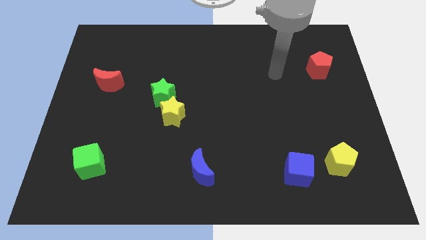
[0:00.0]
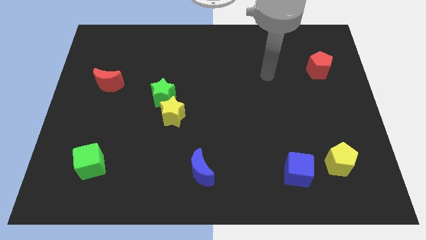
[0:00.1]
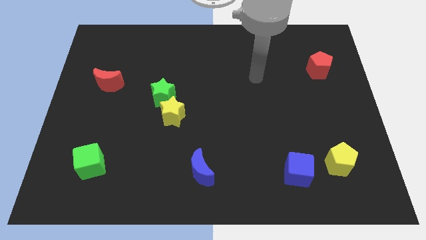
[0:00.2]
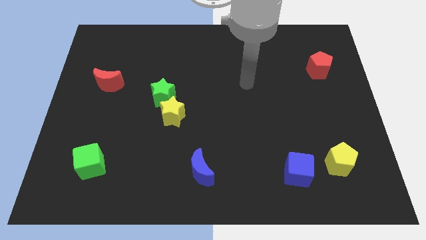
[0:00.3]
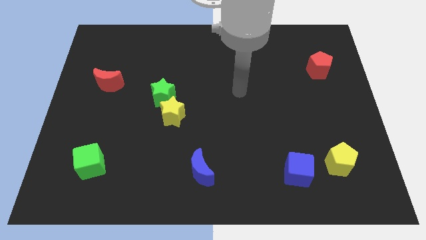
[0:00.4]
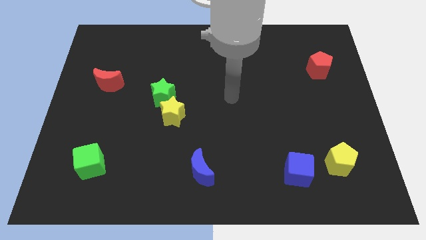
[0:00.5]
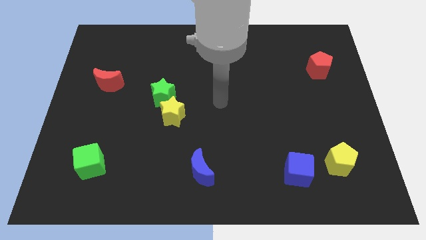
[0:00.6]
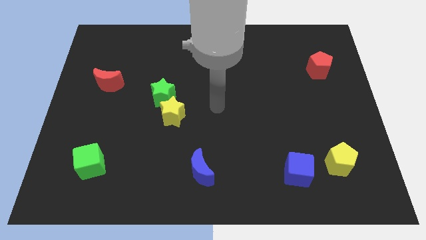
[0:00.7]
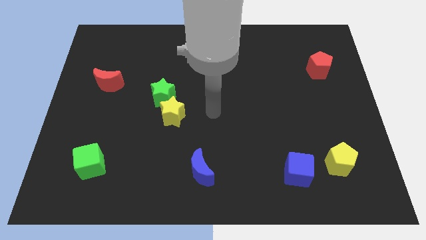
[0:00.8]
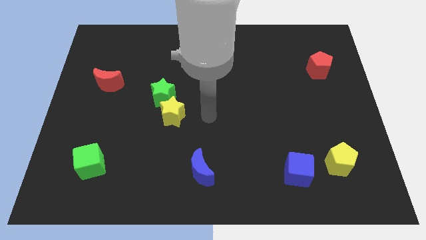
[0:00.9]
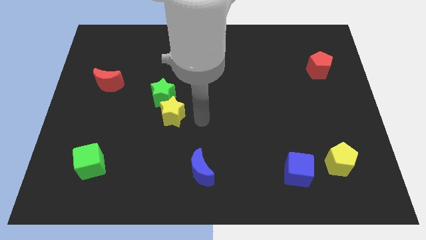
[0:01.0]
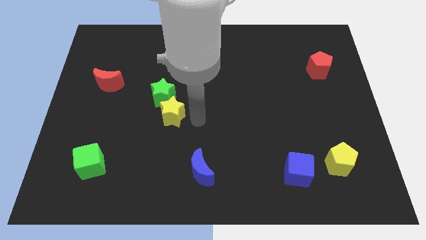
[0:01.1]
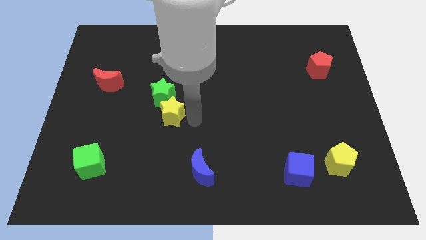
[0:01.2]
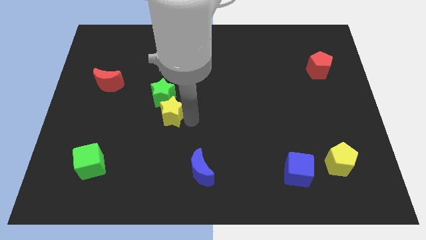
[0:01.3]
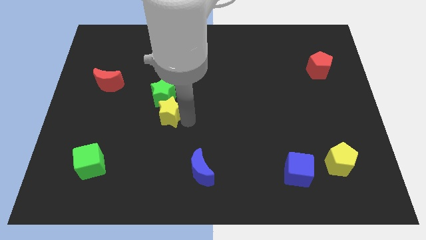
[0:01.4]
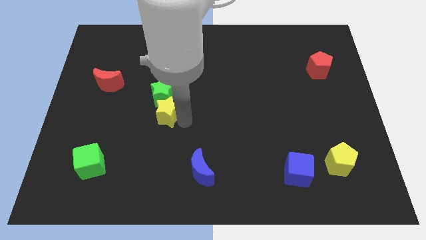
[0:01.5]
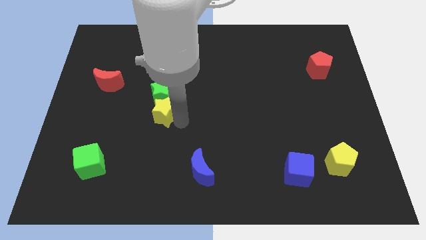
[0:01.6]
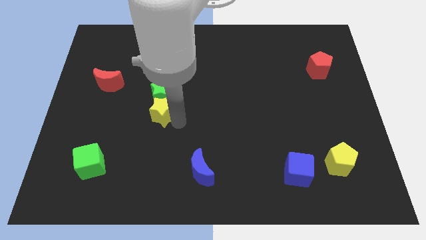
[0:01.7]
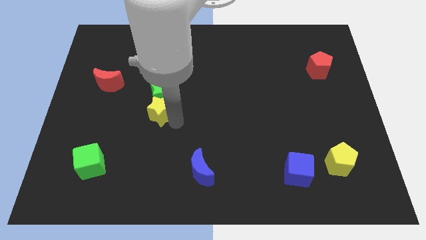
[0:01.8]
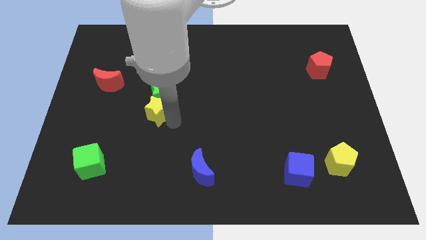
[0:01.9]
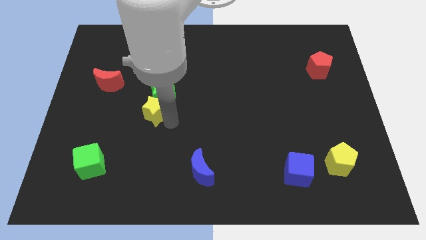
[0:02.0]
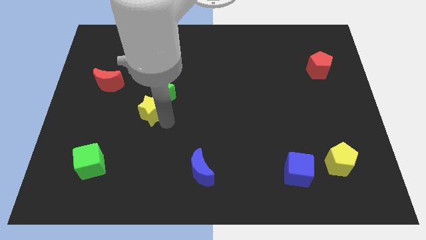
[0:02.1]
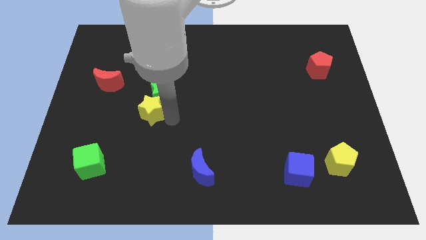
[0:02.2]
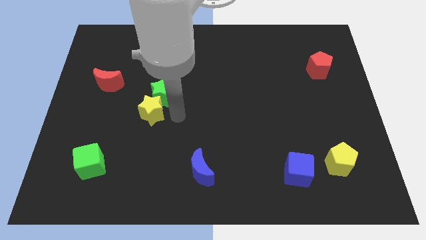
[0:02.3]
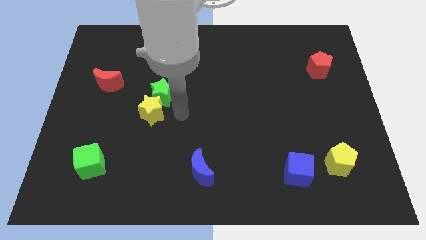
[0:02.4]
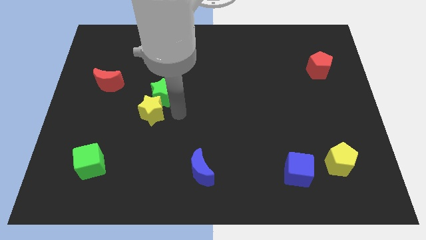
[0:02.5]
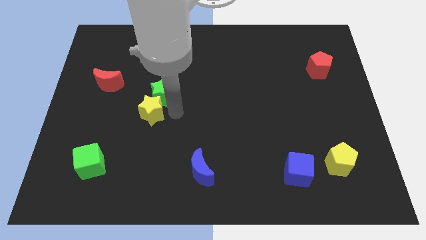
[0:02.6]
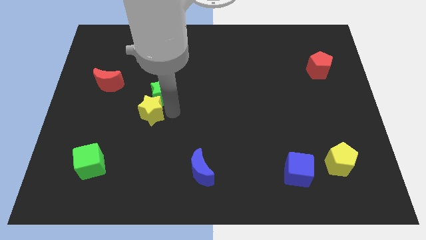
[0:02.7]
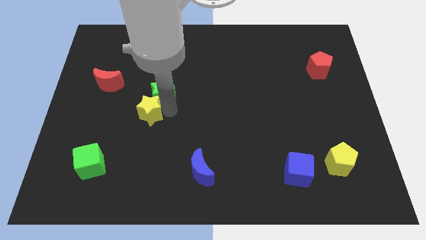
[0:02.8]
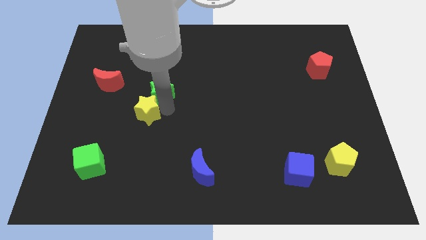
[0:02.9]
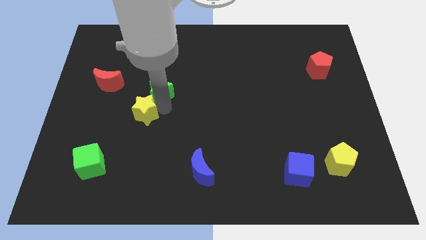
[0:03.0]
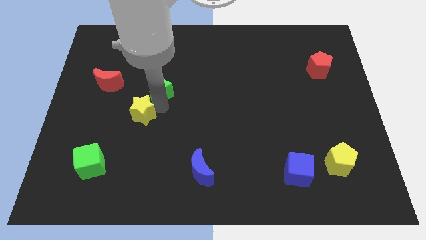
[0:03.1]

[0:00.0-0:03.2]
slide the yellow star left a little bit

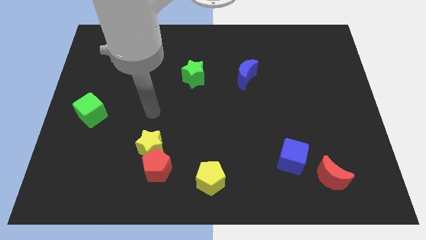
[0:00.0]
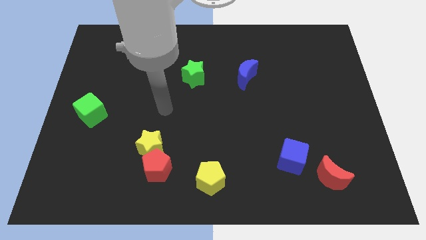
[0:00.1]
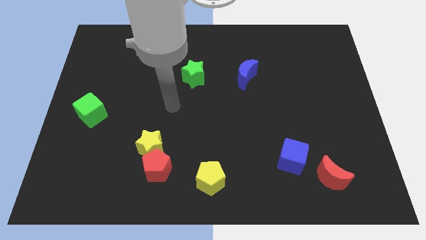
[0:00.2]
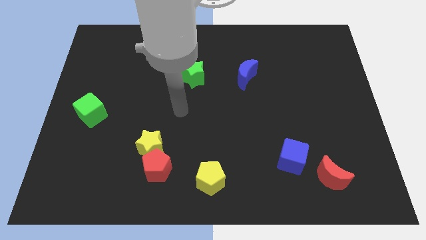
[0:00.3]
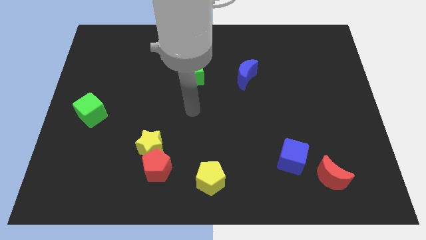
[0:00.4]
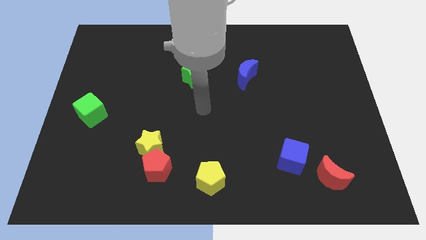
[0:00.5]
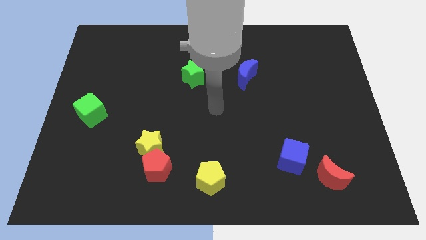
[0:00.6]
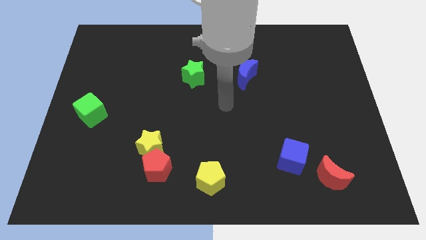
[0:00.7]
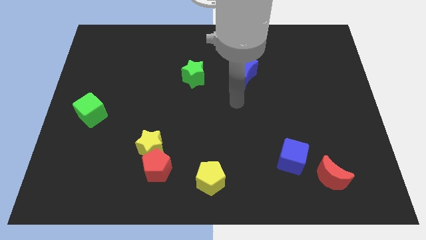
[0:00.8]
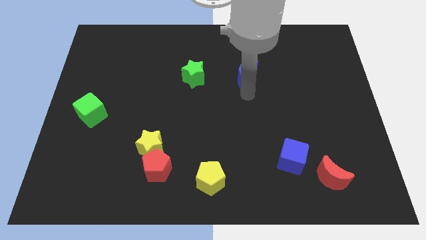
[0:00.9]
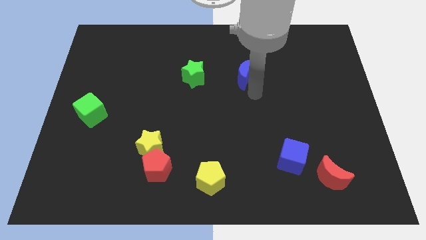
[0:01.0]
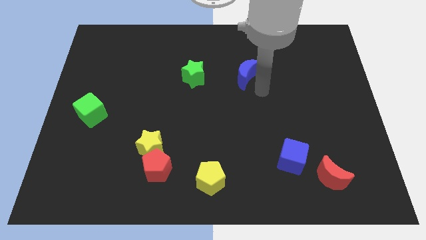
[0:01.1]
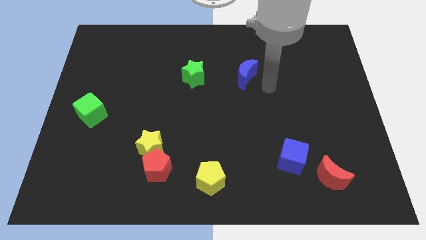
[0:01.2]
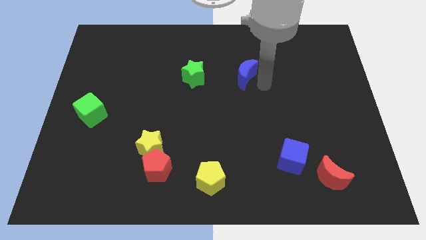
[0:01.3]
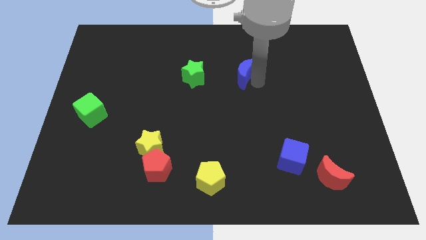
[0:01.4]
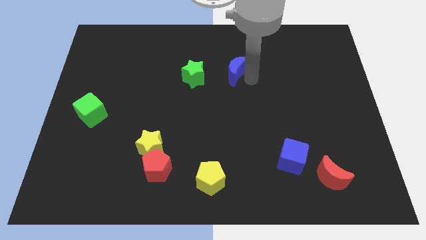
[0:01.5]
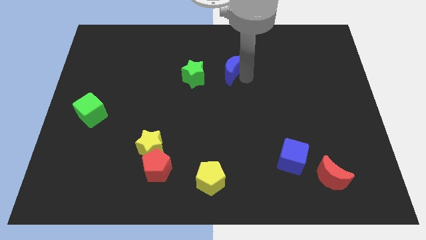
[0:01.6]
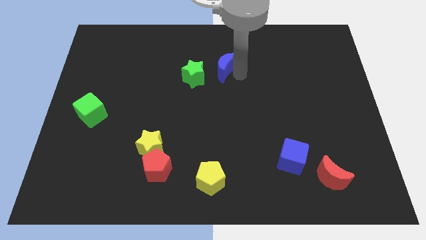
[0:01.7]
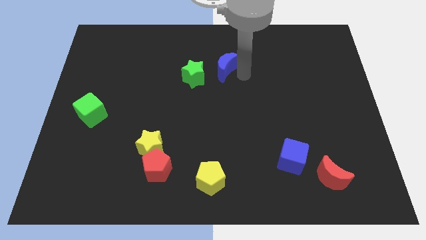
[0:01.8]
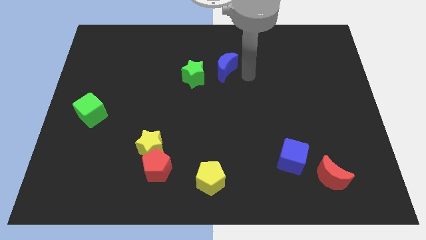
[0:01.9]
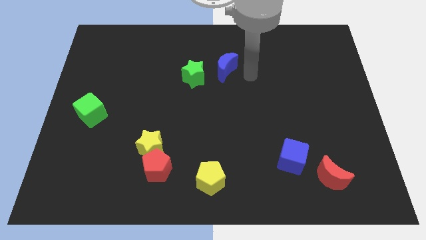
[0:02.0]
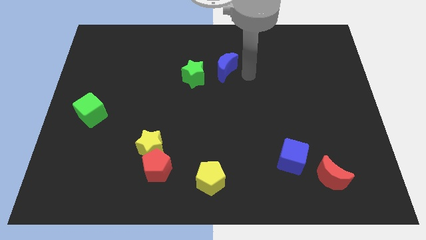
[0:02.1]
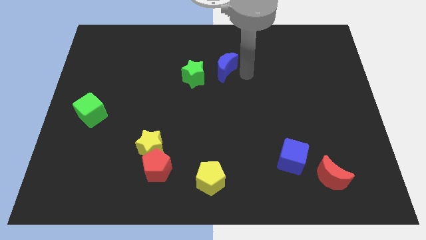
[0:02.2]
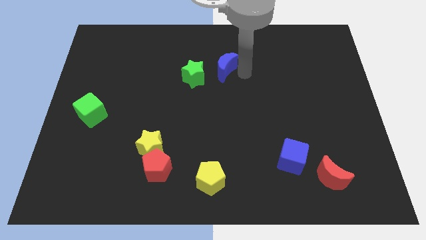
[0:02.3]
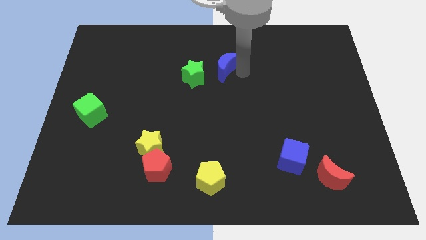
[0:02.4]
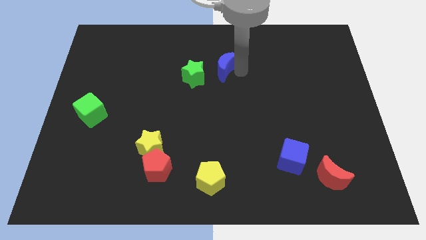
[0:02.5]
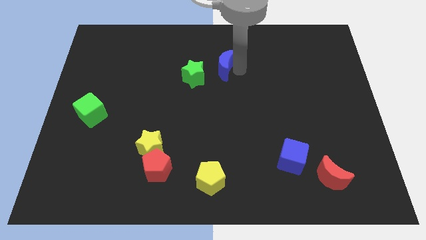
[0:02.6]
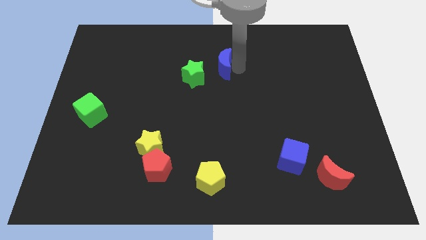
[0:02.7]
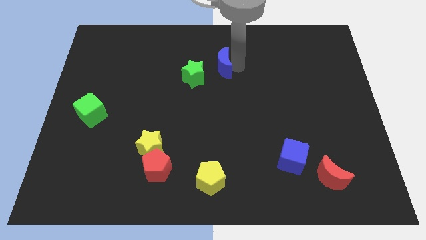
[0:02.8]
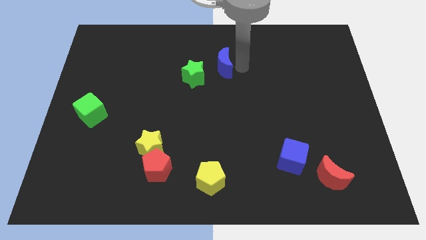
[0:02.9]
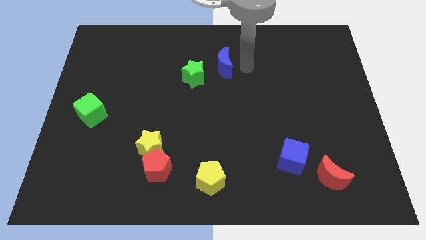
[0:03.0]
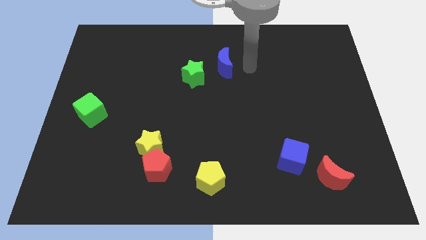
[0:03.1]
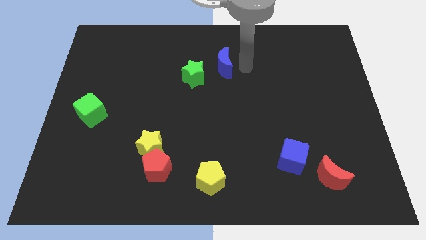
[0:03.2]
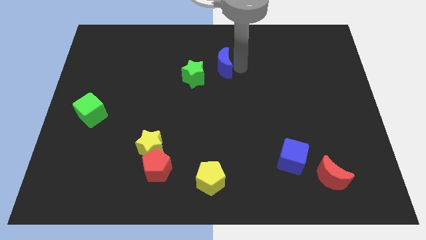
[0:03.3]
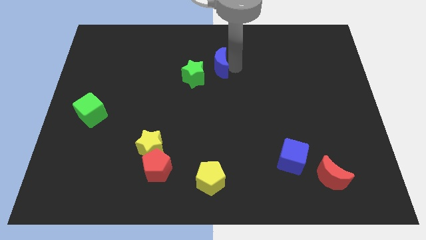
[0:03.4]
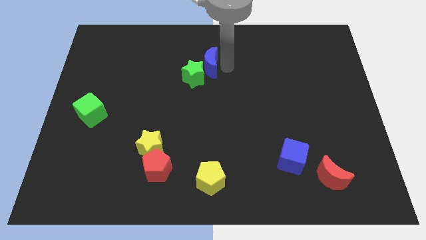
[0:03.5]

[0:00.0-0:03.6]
push the blue moon to the left a little bit

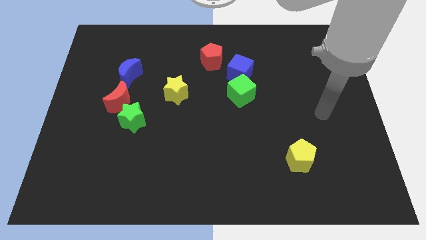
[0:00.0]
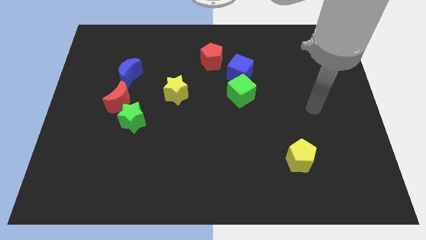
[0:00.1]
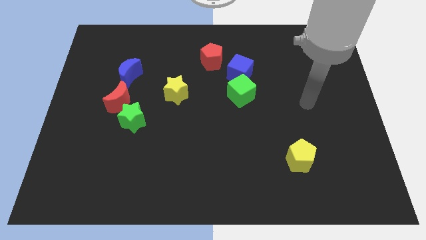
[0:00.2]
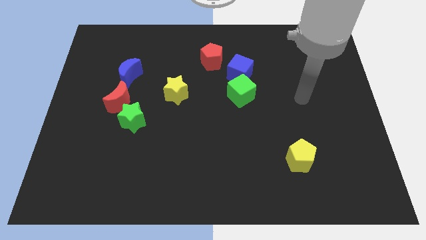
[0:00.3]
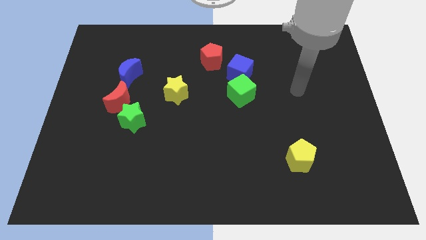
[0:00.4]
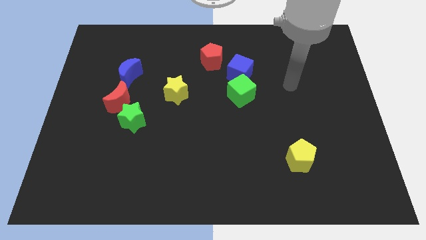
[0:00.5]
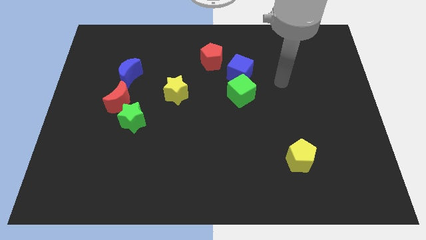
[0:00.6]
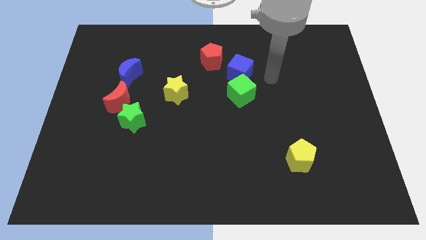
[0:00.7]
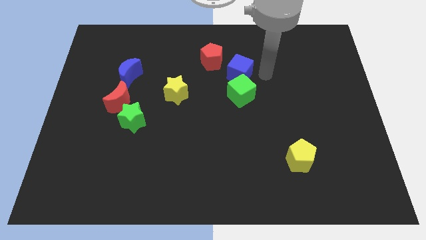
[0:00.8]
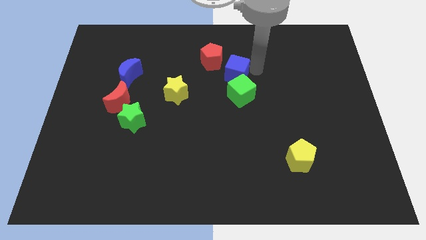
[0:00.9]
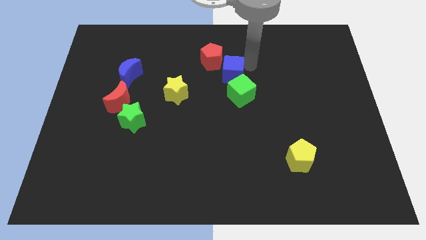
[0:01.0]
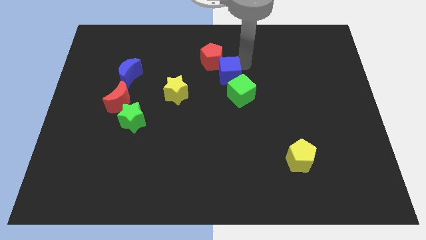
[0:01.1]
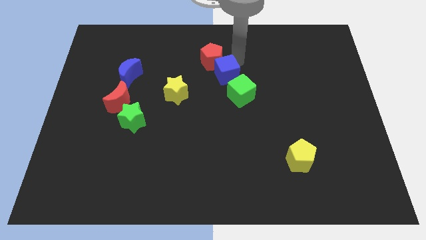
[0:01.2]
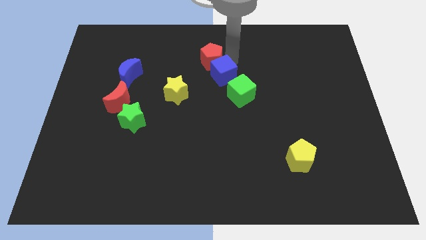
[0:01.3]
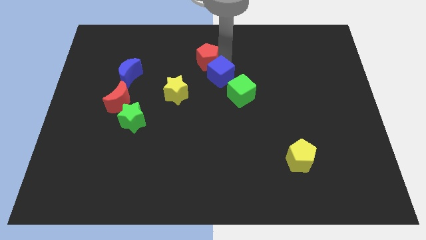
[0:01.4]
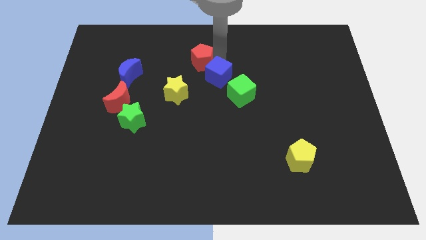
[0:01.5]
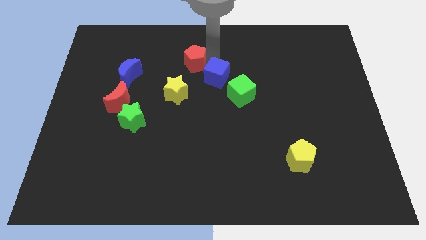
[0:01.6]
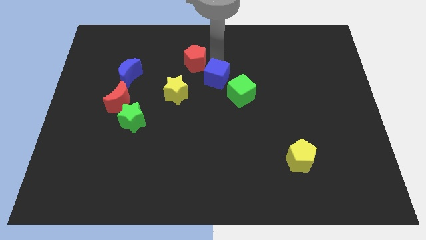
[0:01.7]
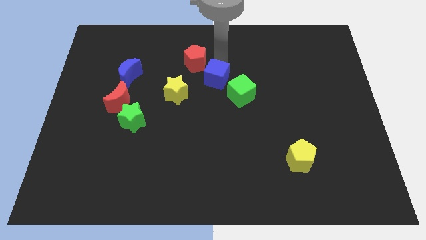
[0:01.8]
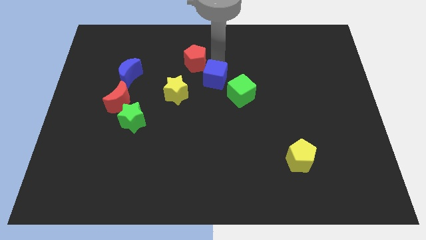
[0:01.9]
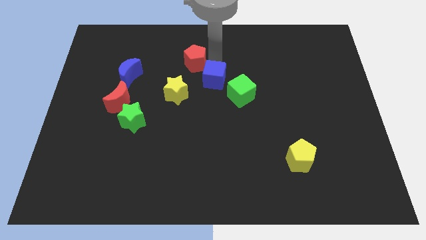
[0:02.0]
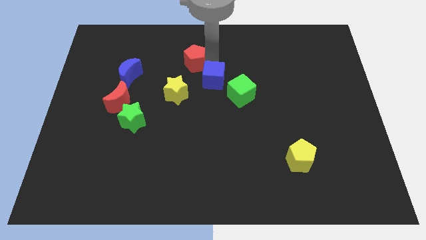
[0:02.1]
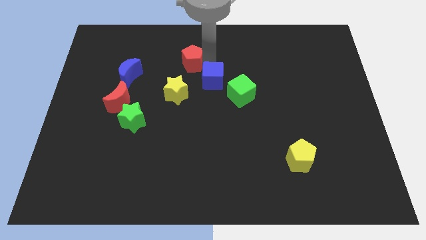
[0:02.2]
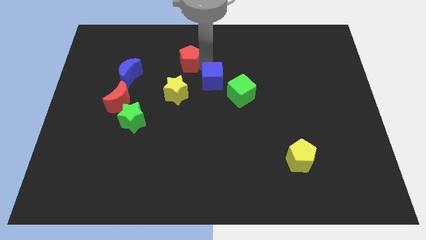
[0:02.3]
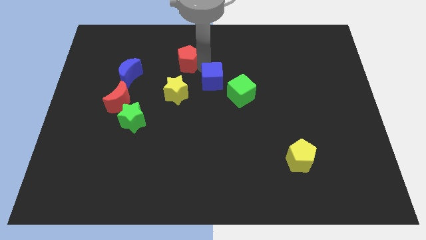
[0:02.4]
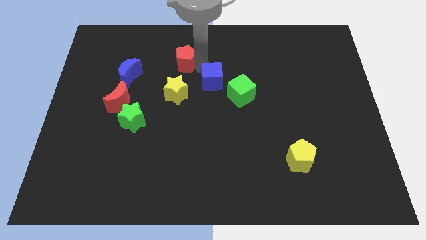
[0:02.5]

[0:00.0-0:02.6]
push the red pentagon left a little bit
